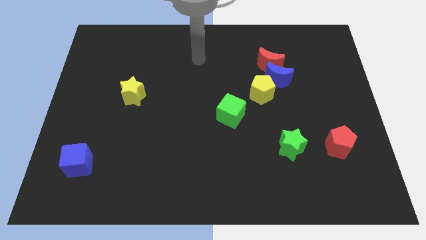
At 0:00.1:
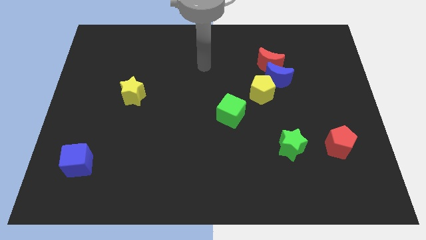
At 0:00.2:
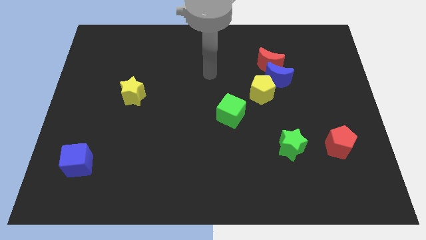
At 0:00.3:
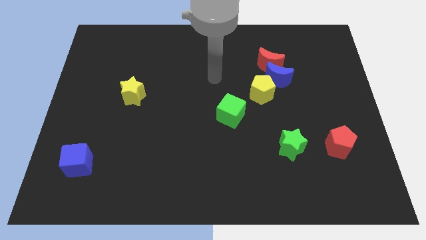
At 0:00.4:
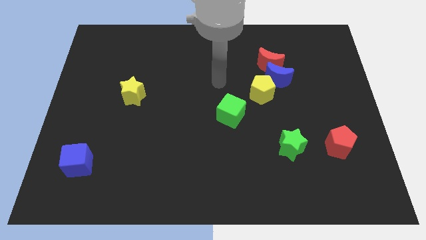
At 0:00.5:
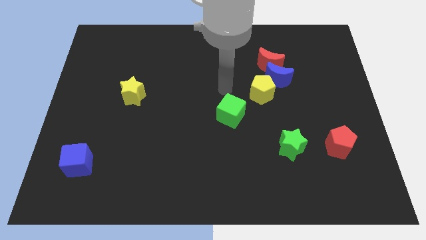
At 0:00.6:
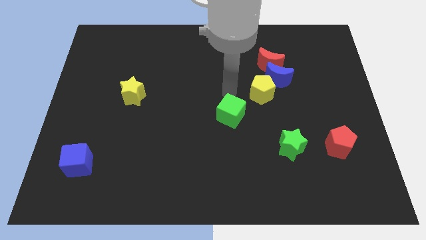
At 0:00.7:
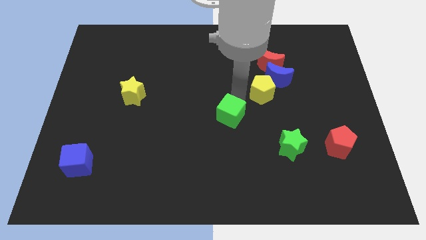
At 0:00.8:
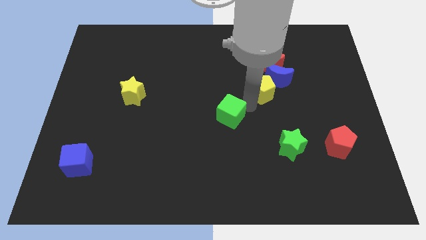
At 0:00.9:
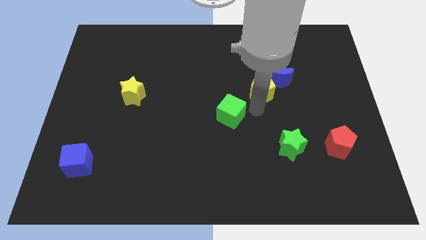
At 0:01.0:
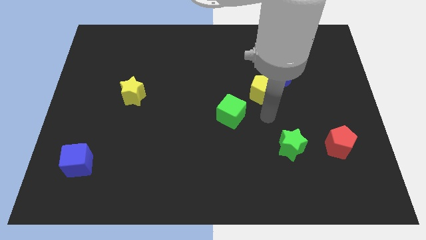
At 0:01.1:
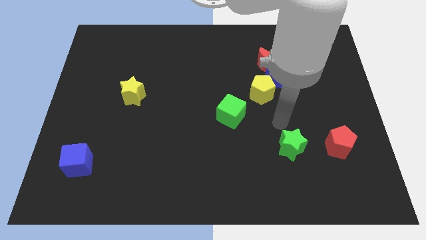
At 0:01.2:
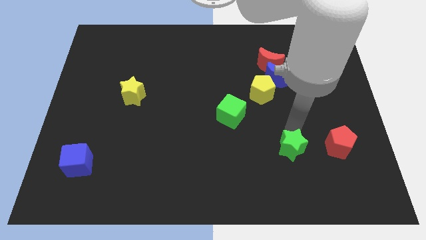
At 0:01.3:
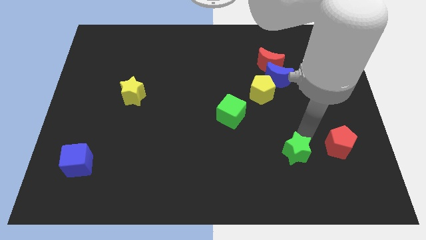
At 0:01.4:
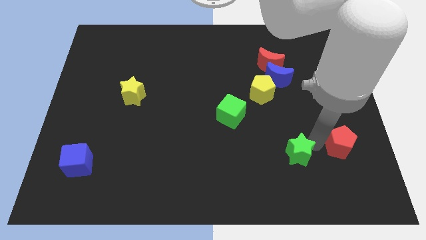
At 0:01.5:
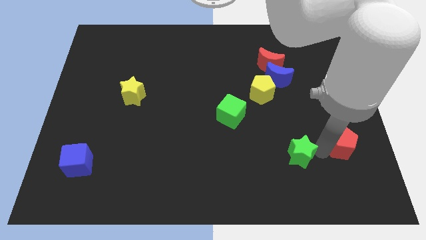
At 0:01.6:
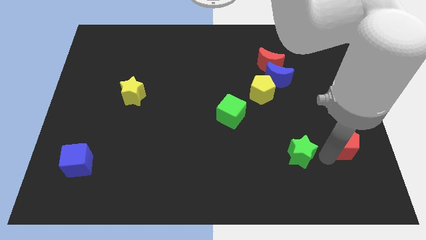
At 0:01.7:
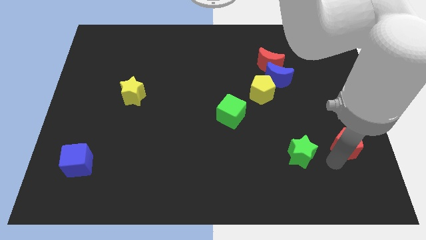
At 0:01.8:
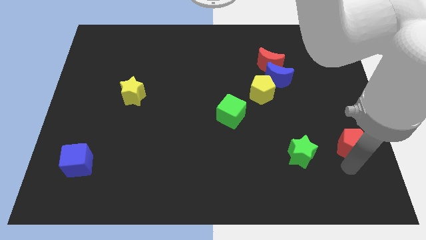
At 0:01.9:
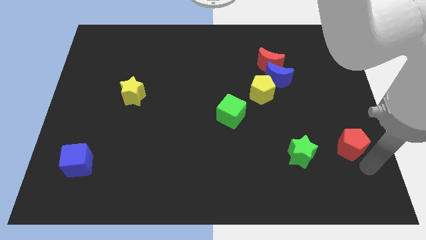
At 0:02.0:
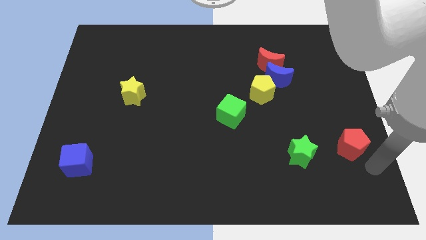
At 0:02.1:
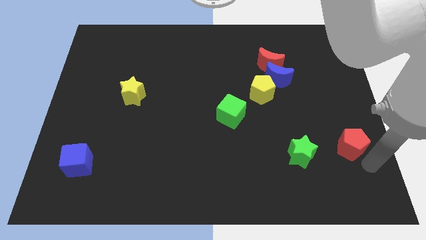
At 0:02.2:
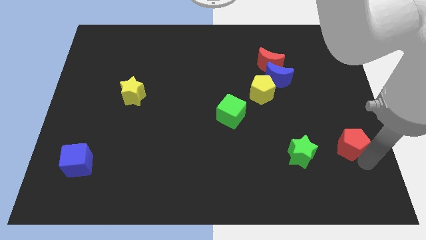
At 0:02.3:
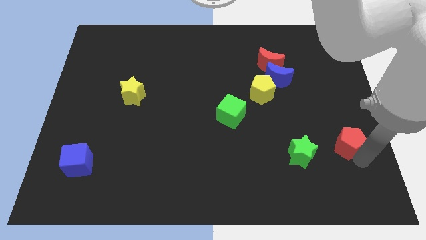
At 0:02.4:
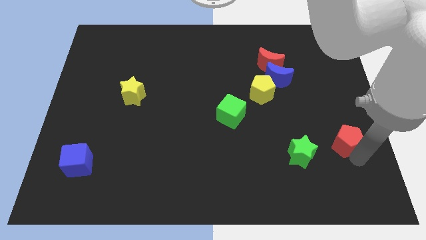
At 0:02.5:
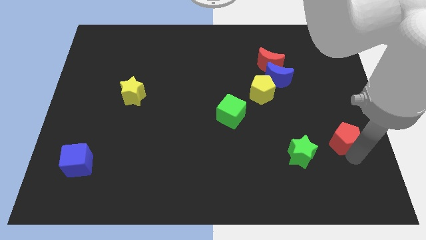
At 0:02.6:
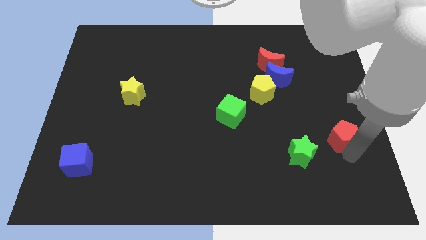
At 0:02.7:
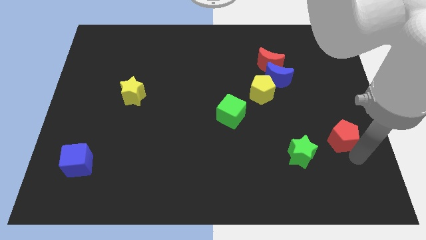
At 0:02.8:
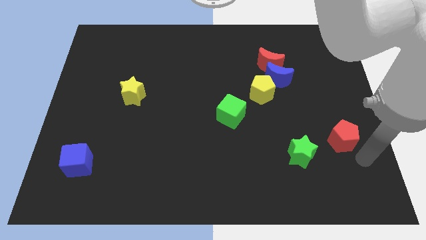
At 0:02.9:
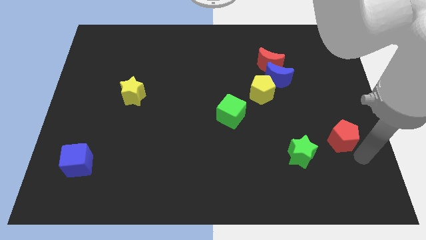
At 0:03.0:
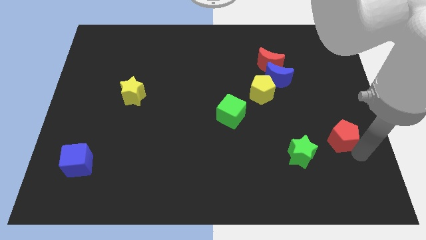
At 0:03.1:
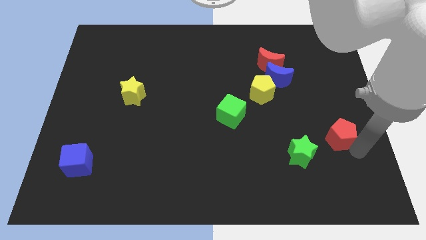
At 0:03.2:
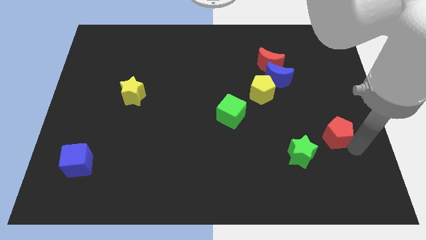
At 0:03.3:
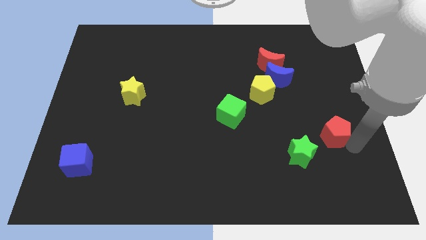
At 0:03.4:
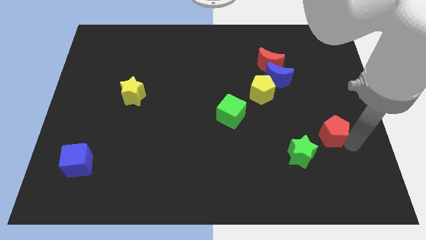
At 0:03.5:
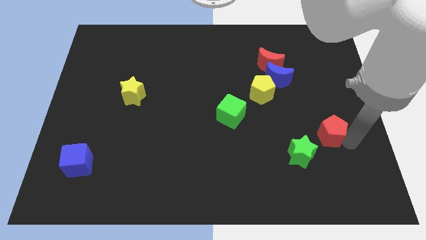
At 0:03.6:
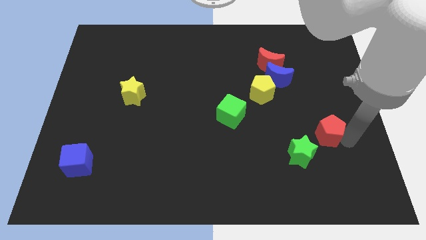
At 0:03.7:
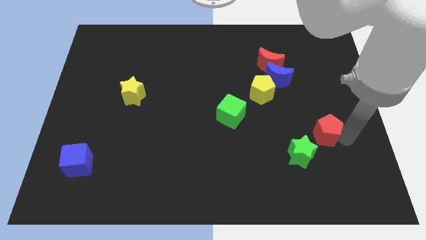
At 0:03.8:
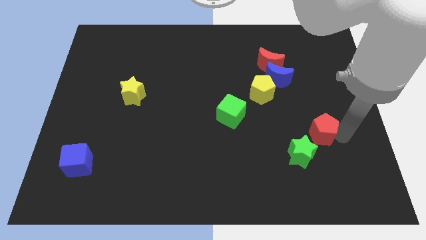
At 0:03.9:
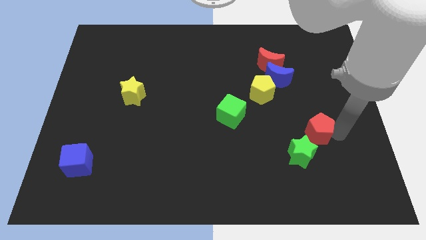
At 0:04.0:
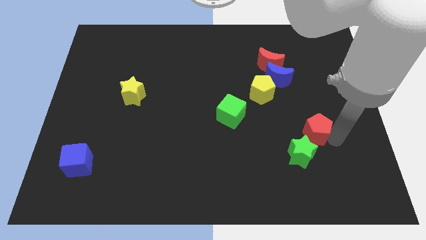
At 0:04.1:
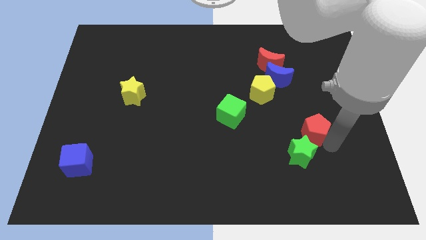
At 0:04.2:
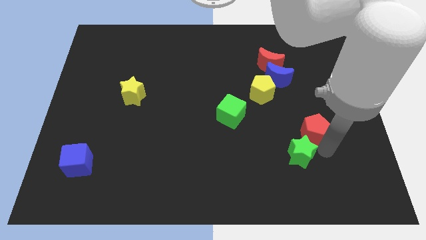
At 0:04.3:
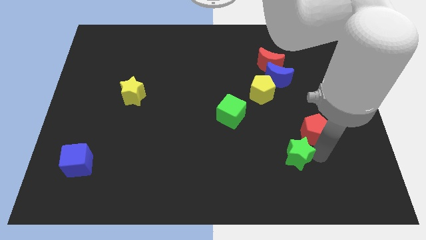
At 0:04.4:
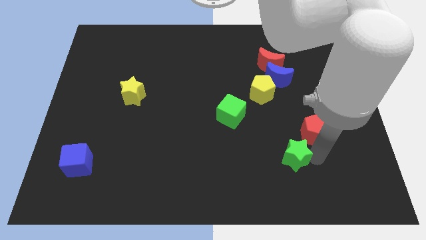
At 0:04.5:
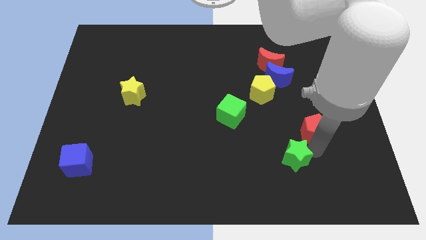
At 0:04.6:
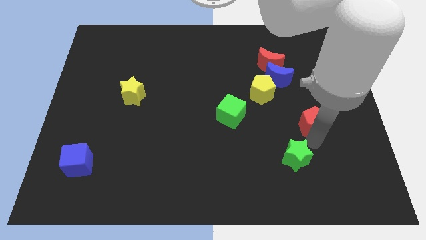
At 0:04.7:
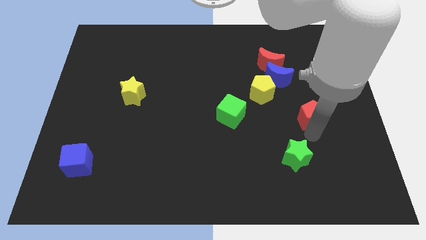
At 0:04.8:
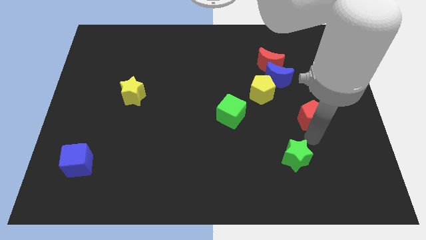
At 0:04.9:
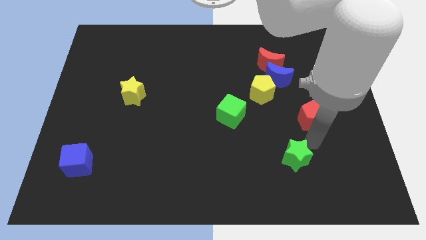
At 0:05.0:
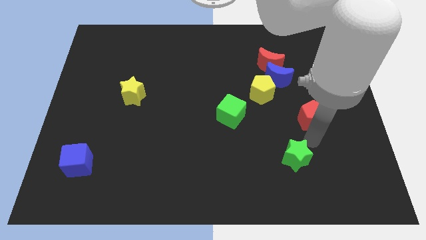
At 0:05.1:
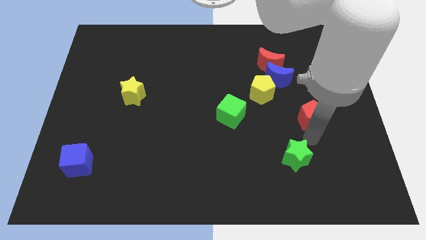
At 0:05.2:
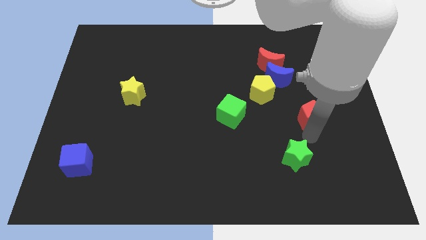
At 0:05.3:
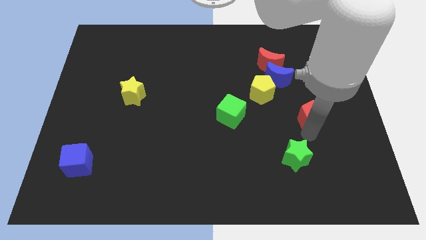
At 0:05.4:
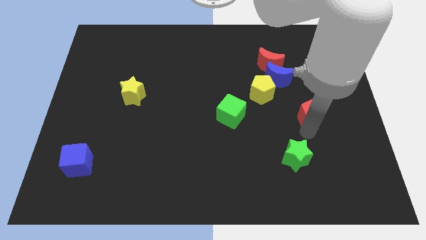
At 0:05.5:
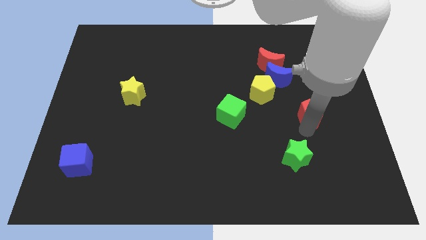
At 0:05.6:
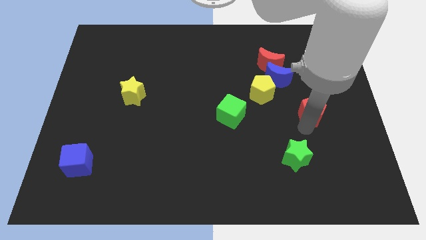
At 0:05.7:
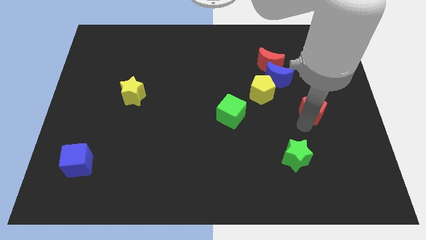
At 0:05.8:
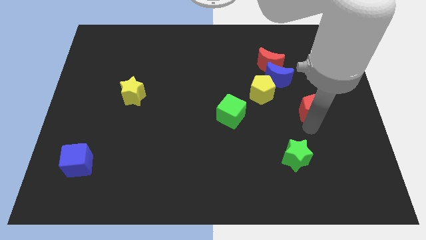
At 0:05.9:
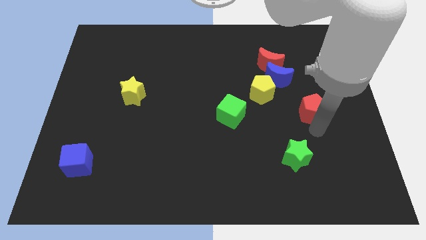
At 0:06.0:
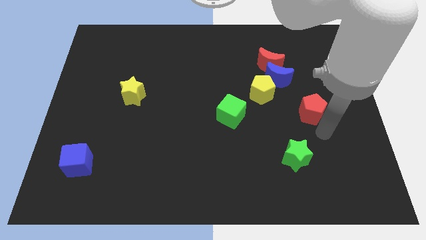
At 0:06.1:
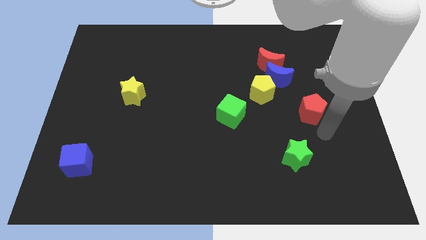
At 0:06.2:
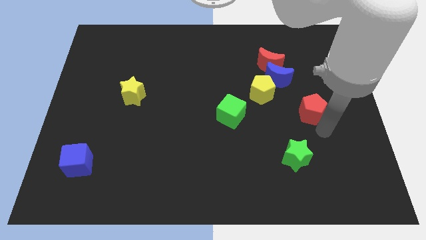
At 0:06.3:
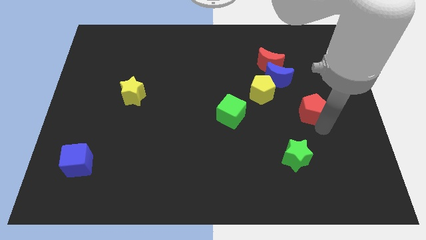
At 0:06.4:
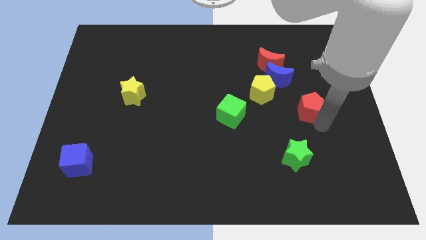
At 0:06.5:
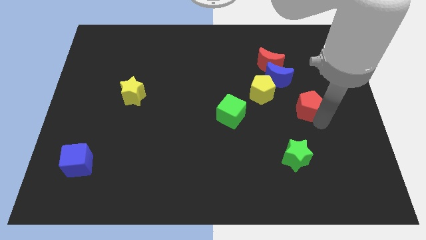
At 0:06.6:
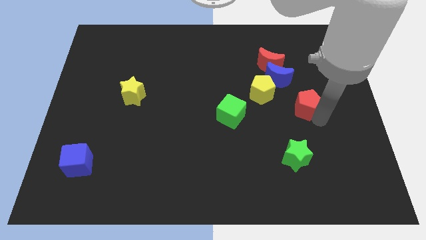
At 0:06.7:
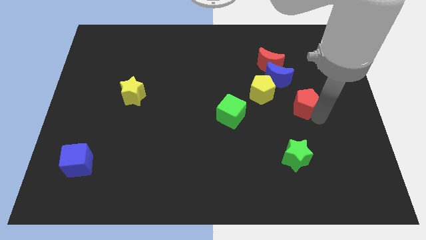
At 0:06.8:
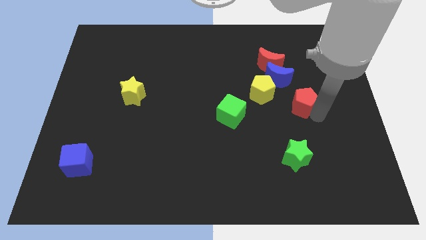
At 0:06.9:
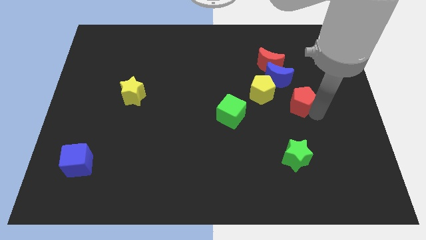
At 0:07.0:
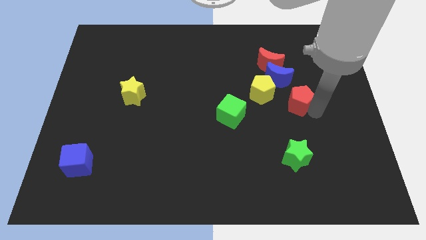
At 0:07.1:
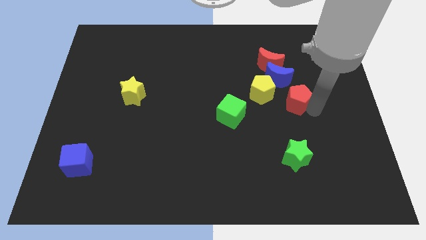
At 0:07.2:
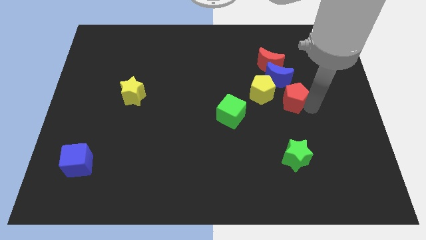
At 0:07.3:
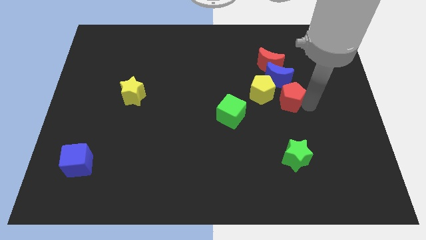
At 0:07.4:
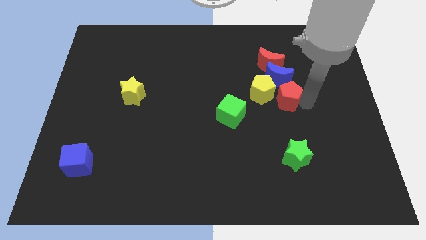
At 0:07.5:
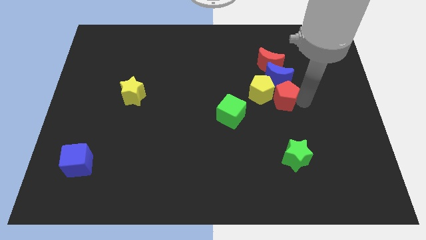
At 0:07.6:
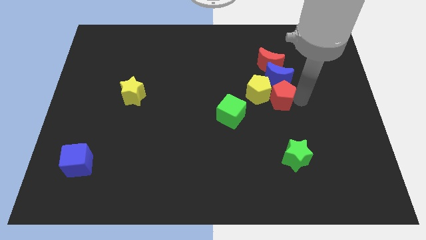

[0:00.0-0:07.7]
slide the red pentagon next to the blue moon
